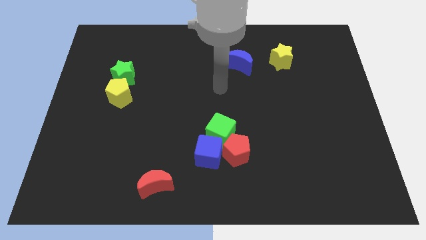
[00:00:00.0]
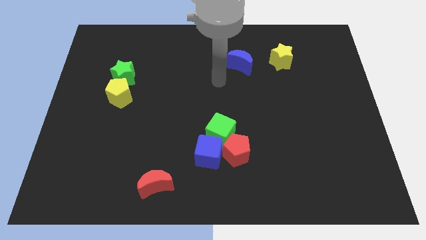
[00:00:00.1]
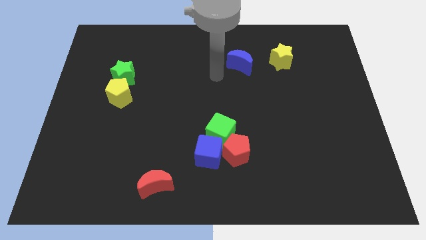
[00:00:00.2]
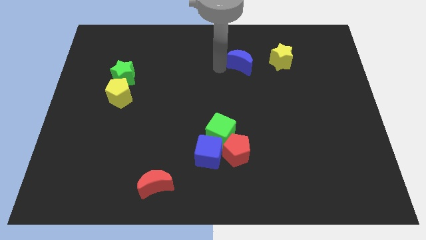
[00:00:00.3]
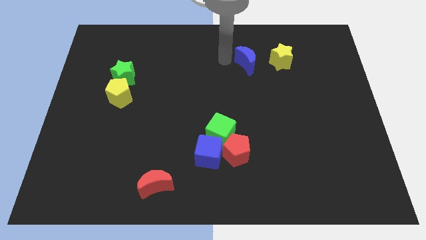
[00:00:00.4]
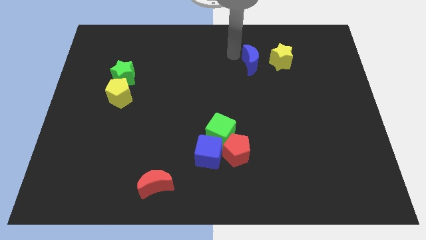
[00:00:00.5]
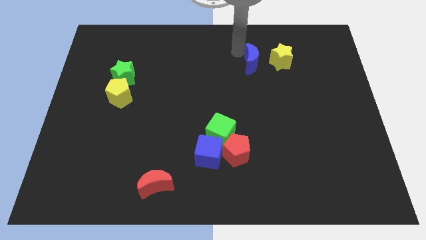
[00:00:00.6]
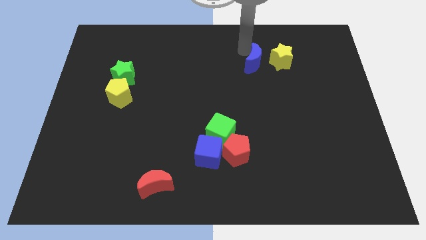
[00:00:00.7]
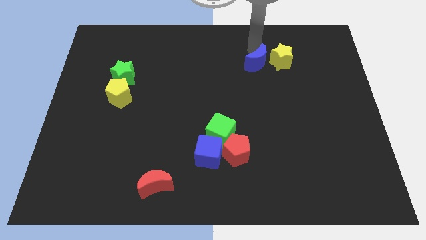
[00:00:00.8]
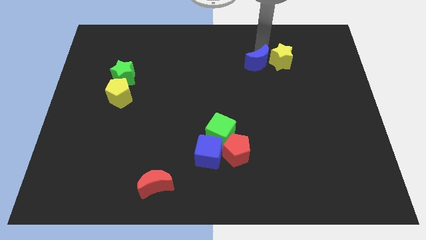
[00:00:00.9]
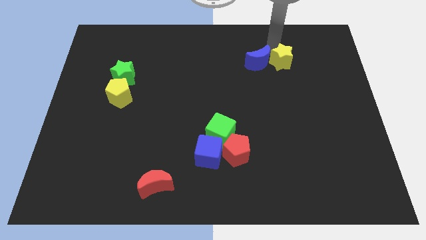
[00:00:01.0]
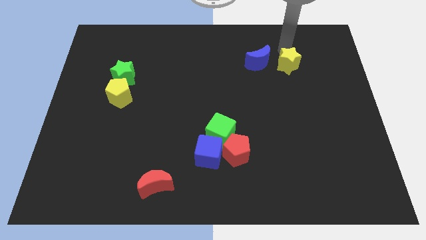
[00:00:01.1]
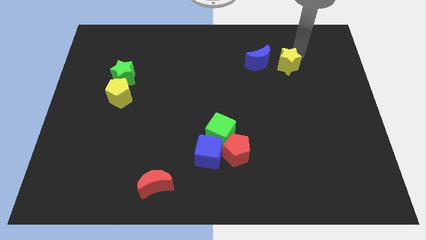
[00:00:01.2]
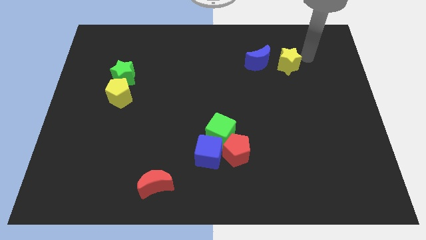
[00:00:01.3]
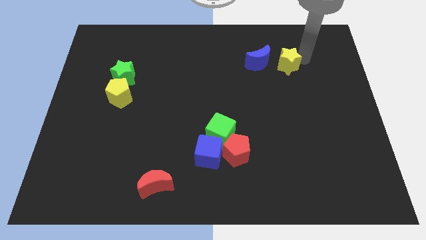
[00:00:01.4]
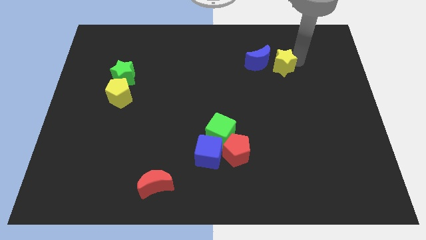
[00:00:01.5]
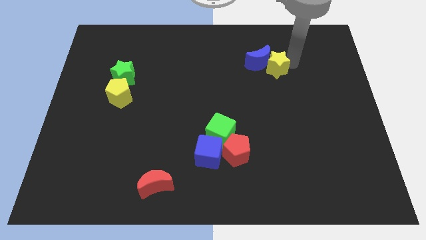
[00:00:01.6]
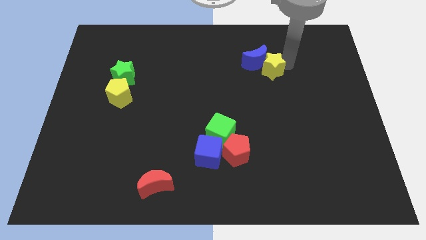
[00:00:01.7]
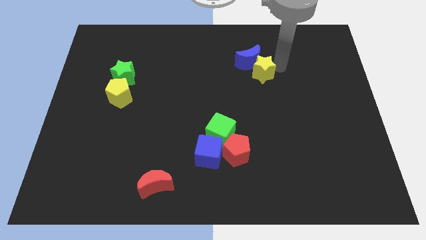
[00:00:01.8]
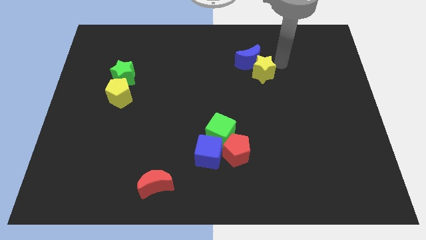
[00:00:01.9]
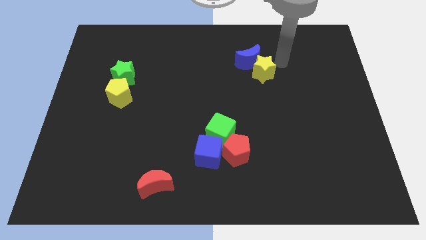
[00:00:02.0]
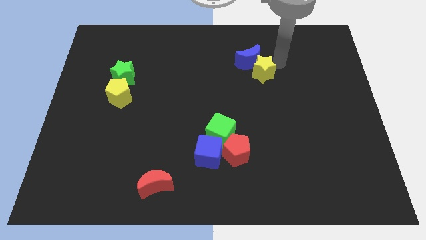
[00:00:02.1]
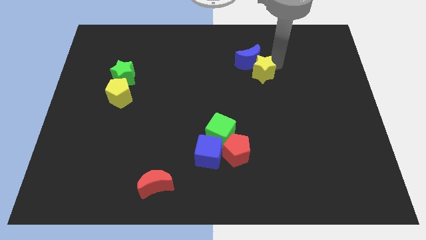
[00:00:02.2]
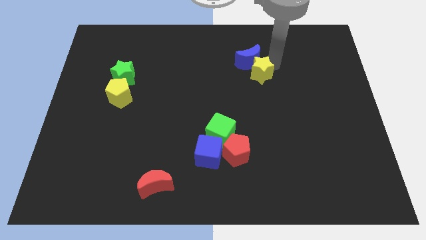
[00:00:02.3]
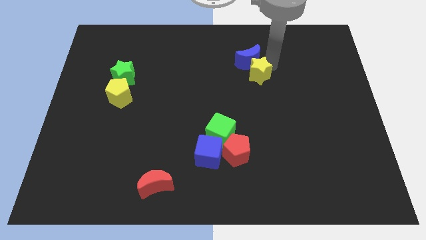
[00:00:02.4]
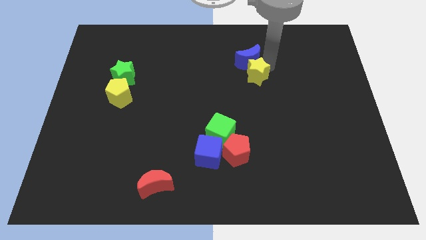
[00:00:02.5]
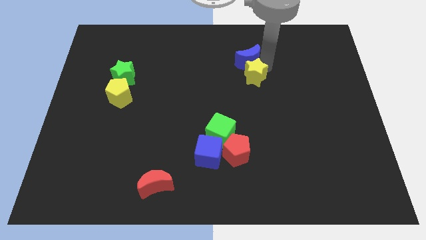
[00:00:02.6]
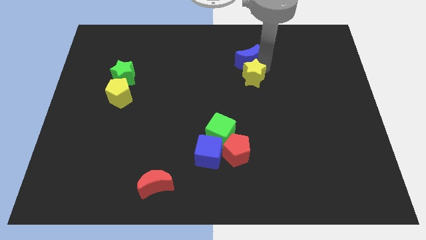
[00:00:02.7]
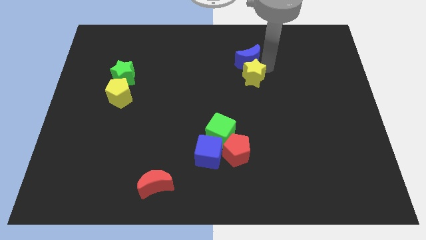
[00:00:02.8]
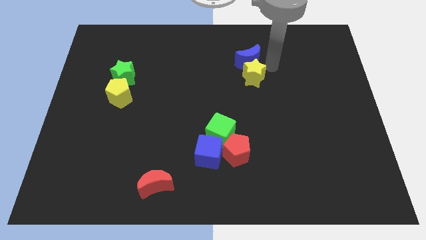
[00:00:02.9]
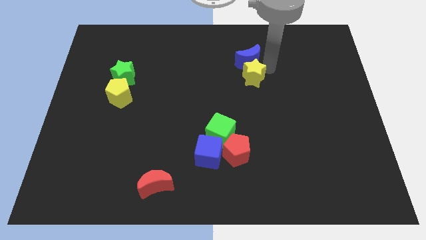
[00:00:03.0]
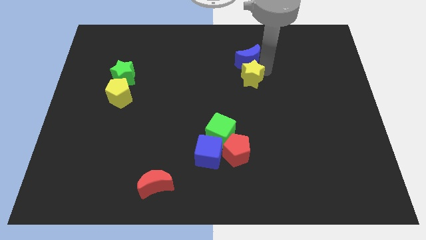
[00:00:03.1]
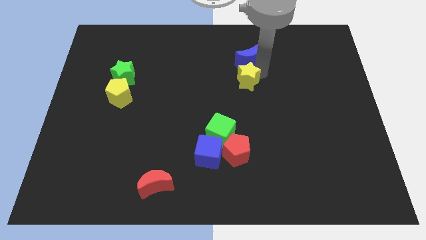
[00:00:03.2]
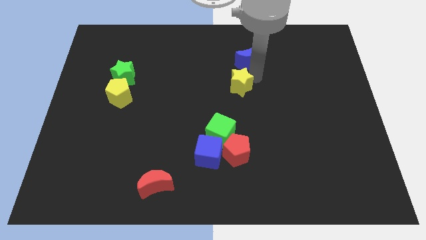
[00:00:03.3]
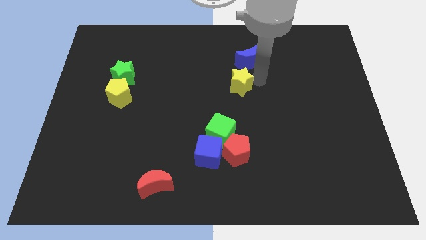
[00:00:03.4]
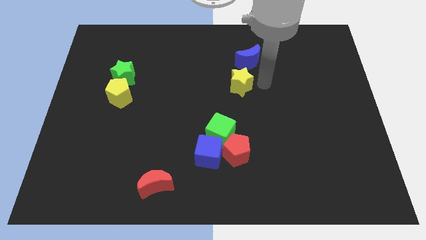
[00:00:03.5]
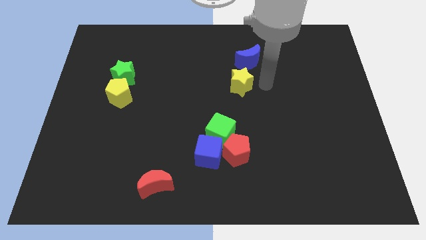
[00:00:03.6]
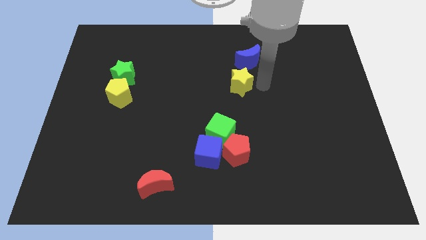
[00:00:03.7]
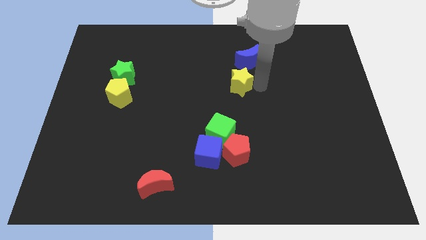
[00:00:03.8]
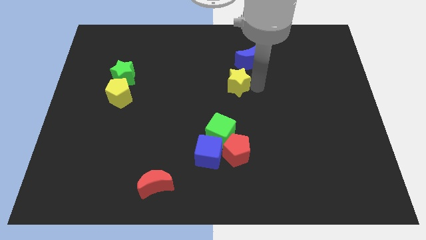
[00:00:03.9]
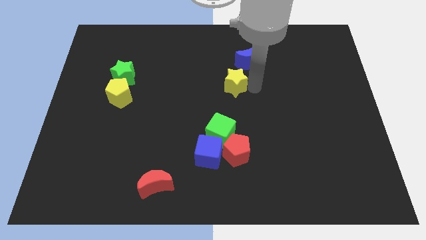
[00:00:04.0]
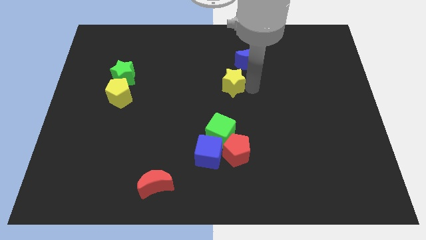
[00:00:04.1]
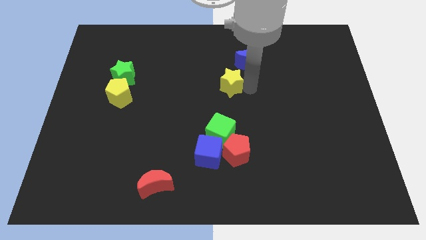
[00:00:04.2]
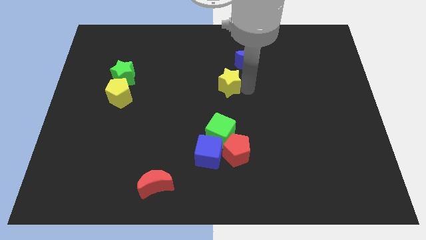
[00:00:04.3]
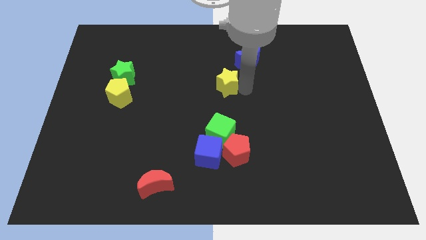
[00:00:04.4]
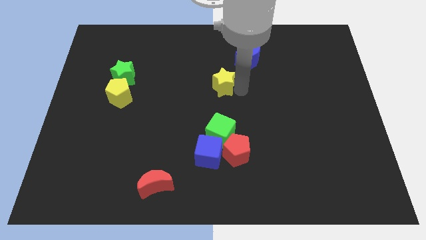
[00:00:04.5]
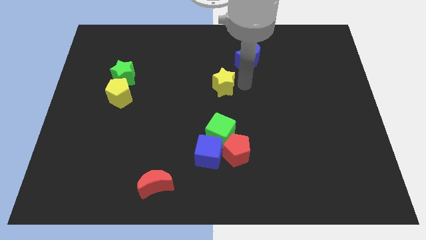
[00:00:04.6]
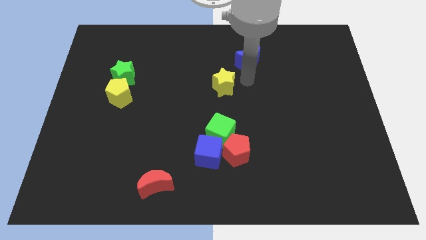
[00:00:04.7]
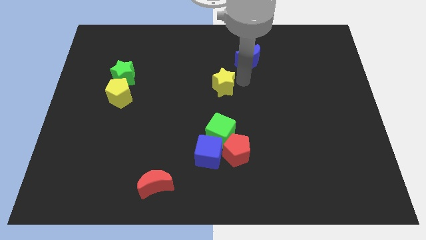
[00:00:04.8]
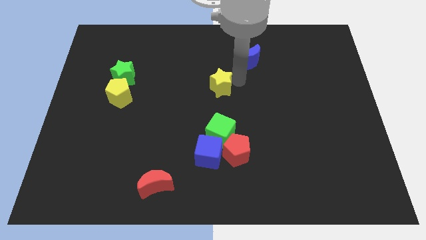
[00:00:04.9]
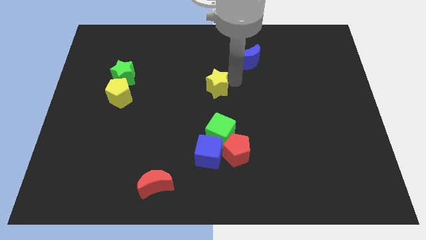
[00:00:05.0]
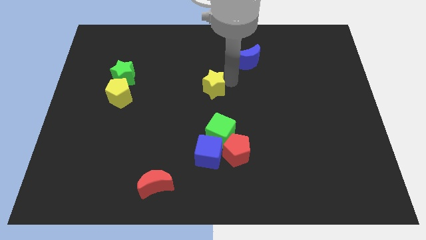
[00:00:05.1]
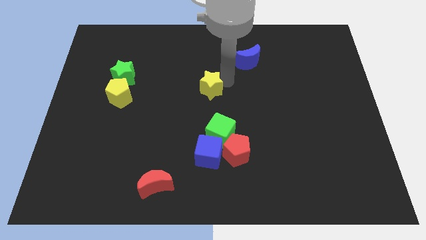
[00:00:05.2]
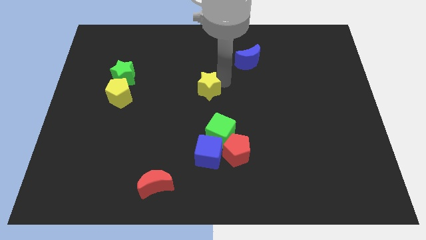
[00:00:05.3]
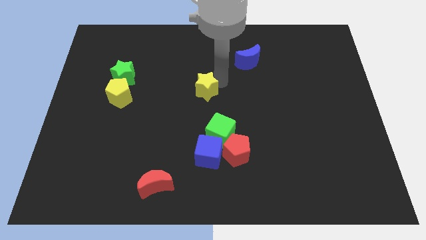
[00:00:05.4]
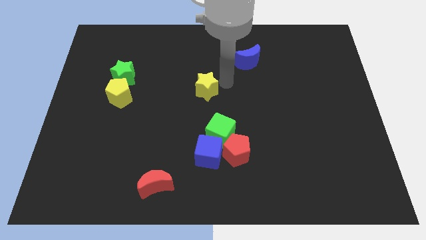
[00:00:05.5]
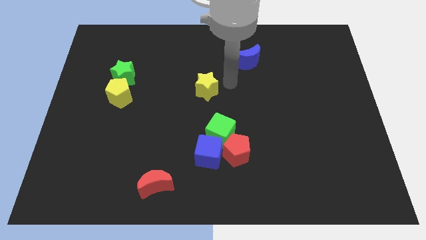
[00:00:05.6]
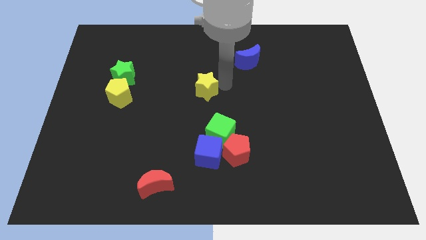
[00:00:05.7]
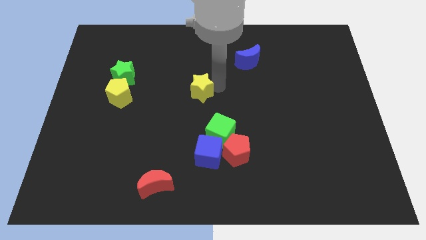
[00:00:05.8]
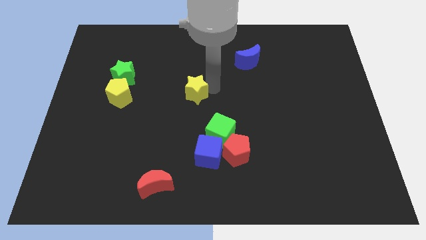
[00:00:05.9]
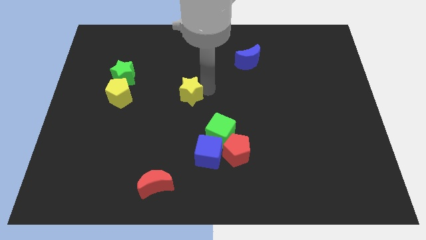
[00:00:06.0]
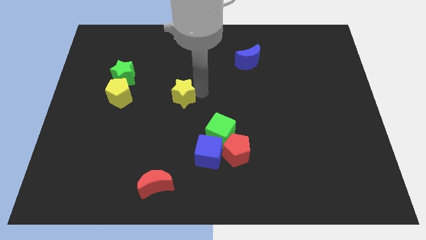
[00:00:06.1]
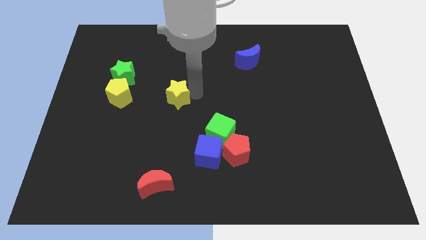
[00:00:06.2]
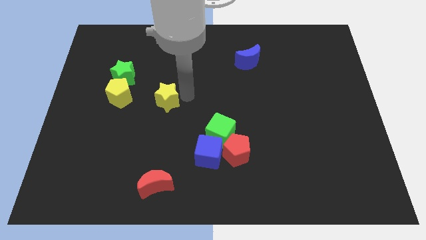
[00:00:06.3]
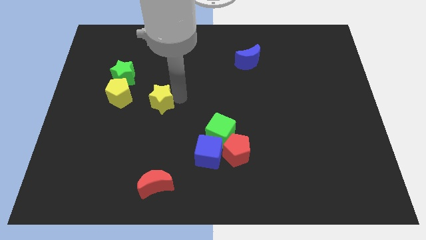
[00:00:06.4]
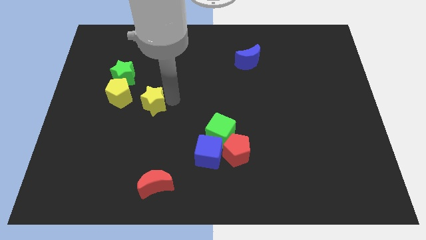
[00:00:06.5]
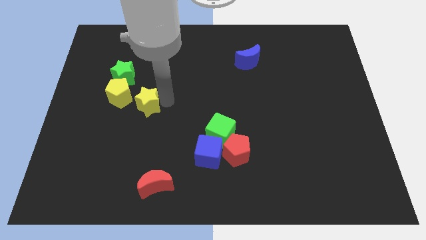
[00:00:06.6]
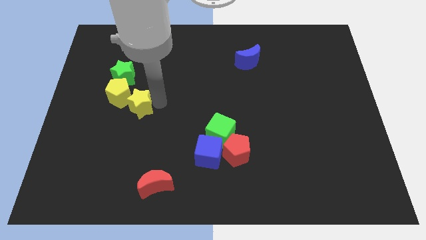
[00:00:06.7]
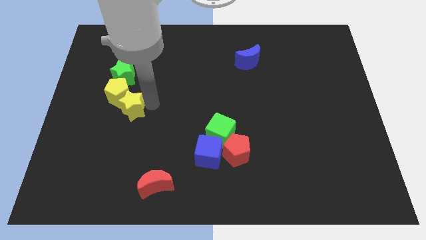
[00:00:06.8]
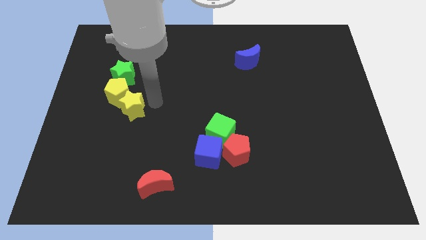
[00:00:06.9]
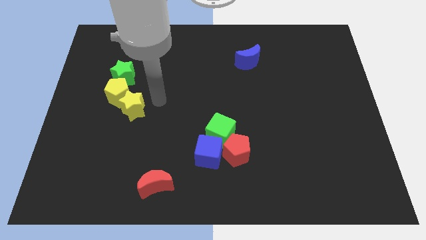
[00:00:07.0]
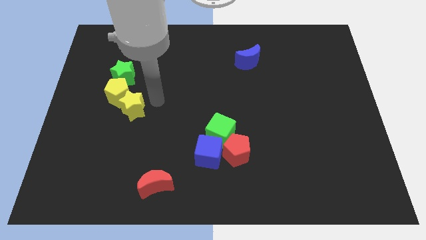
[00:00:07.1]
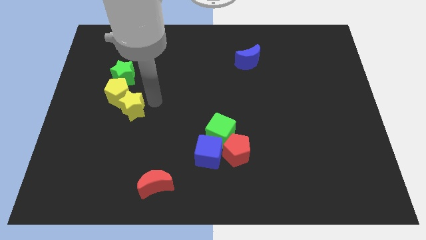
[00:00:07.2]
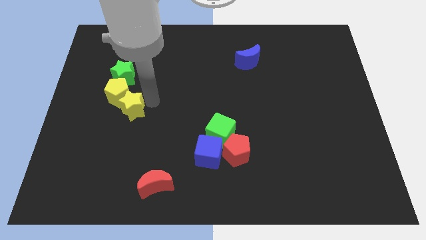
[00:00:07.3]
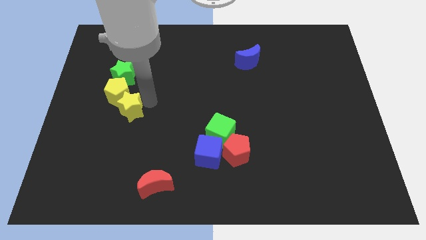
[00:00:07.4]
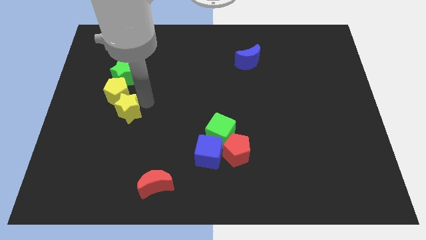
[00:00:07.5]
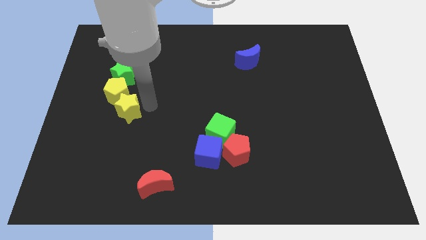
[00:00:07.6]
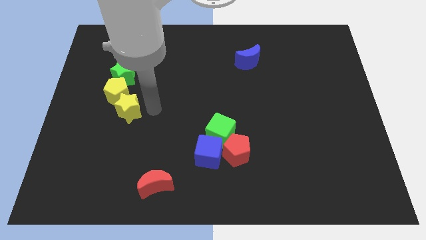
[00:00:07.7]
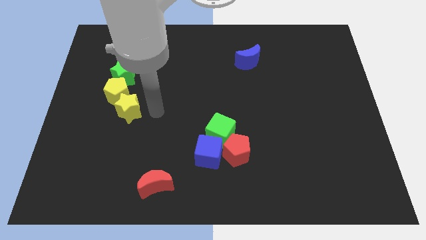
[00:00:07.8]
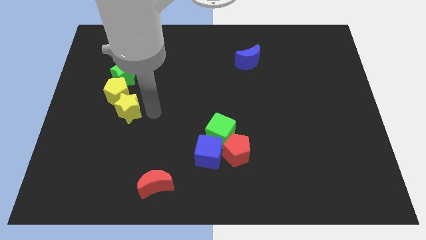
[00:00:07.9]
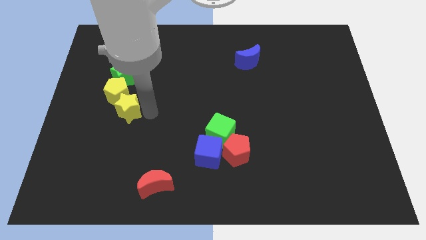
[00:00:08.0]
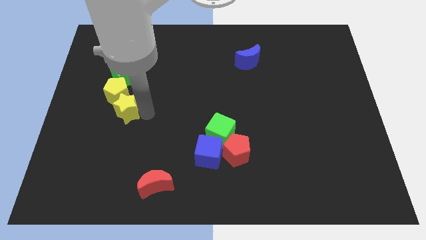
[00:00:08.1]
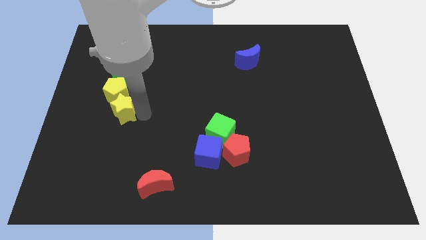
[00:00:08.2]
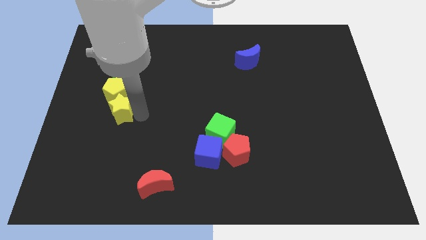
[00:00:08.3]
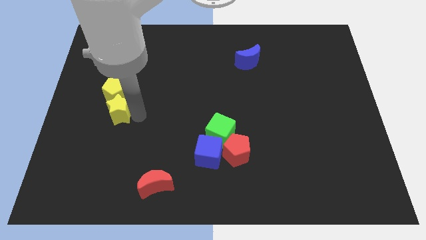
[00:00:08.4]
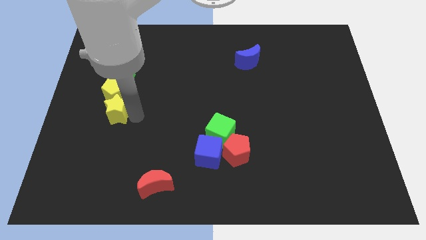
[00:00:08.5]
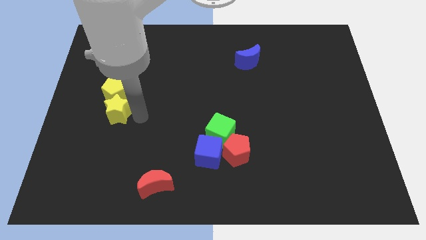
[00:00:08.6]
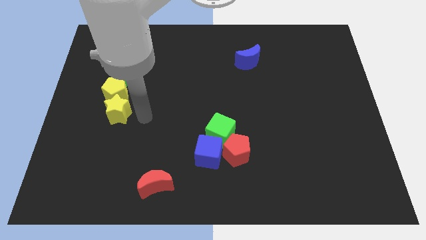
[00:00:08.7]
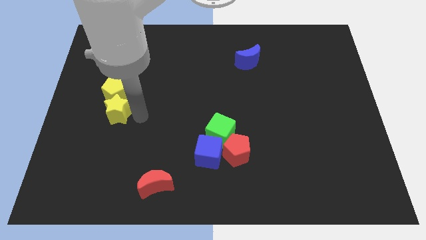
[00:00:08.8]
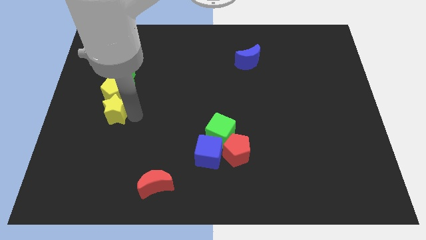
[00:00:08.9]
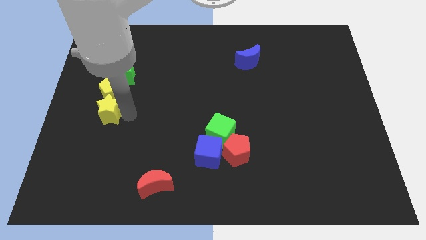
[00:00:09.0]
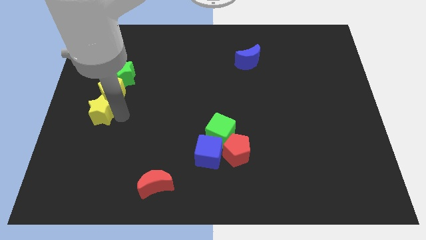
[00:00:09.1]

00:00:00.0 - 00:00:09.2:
put the yellow star to the center left
